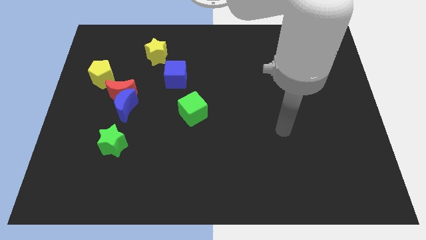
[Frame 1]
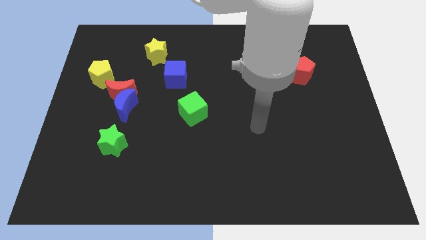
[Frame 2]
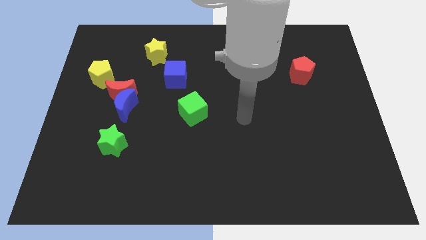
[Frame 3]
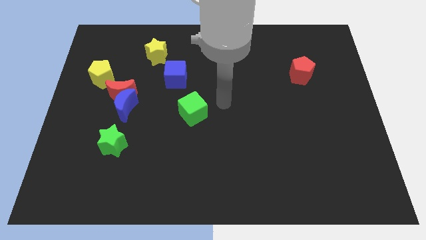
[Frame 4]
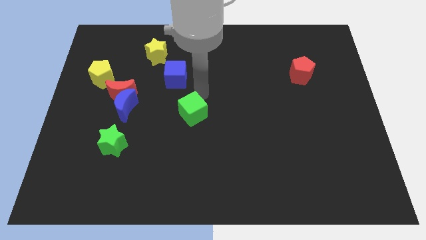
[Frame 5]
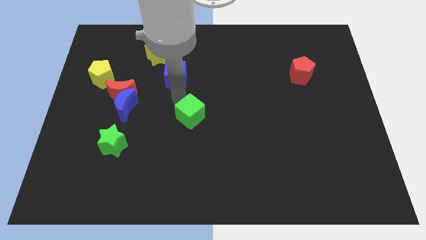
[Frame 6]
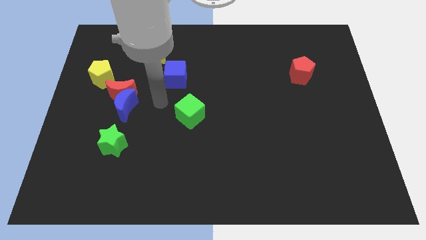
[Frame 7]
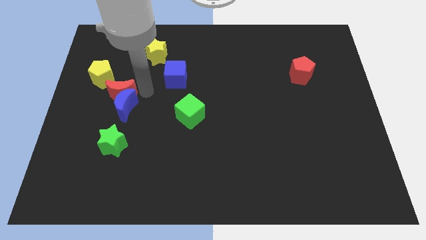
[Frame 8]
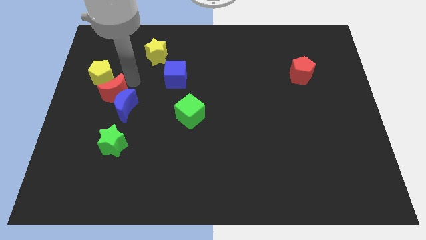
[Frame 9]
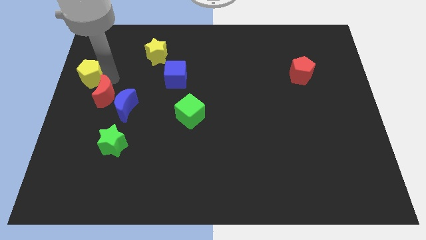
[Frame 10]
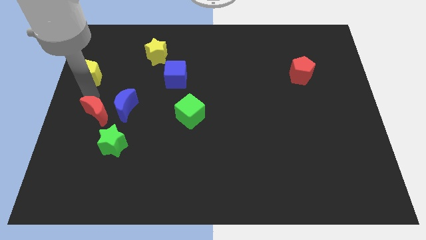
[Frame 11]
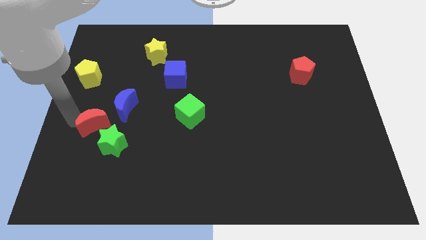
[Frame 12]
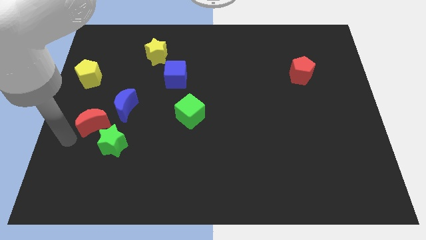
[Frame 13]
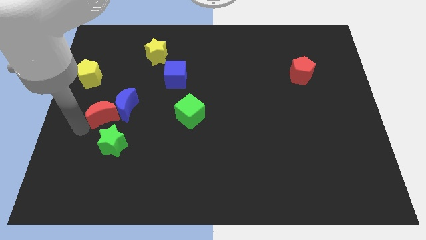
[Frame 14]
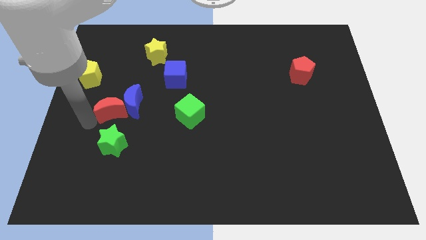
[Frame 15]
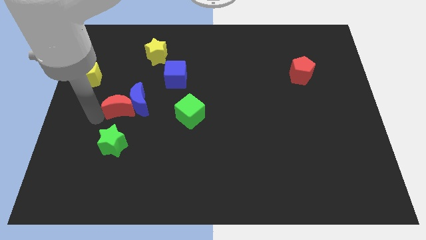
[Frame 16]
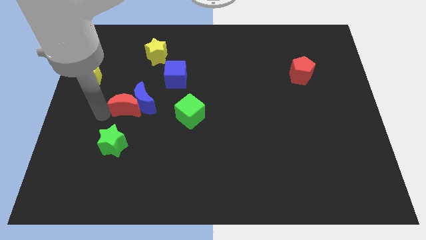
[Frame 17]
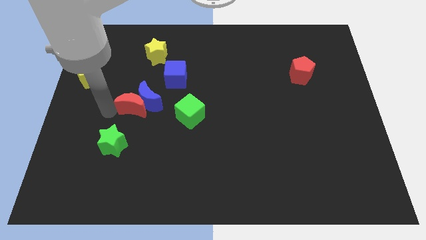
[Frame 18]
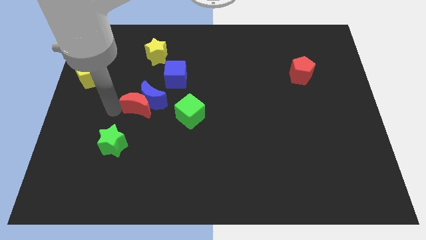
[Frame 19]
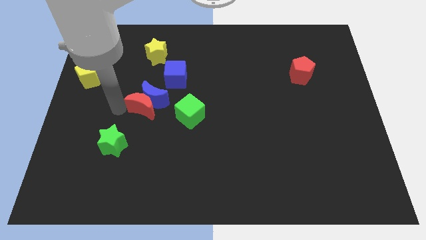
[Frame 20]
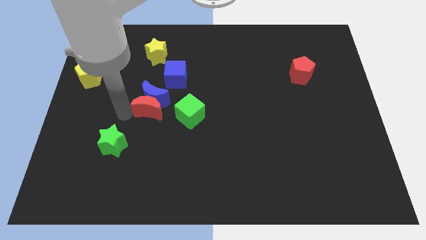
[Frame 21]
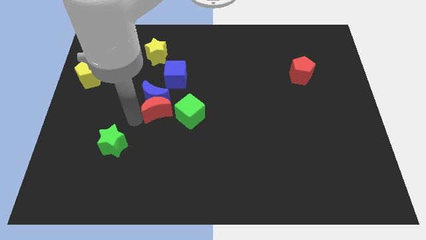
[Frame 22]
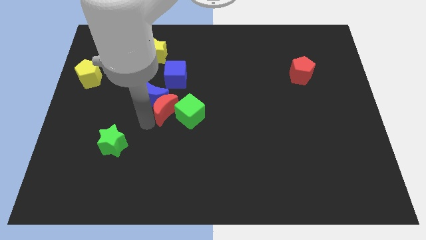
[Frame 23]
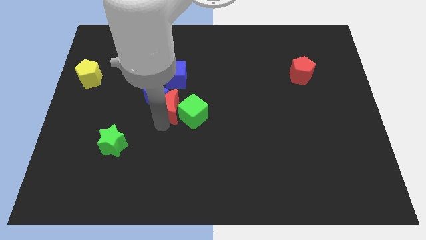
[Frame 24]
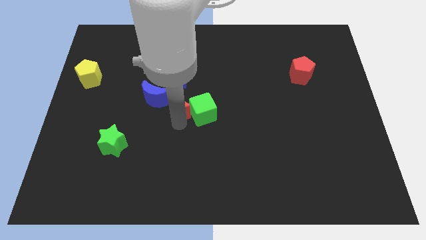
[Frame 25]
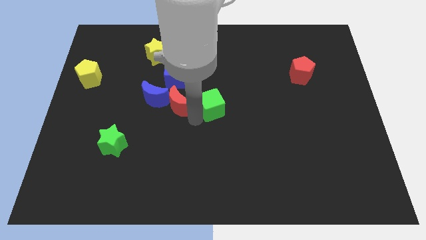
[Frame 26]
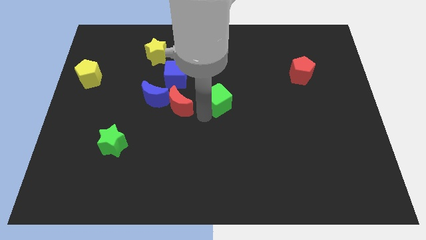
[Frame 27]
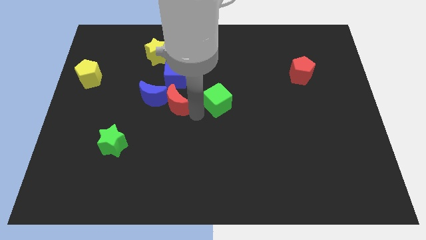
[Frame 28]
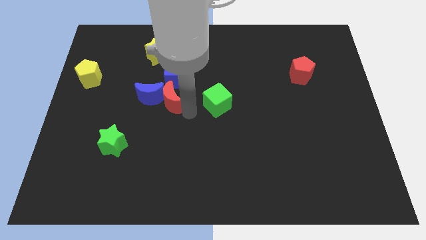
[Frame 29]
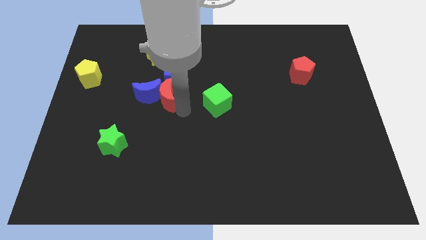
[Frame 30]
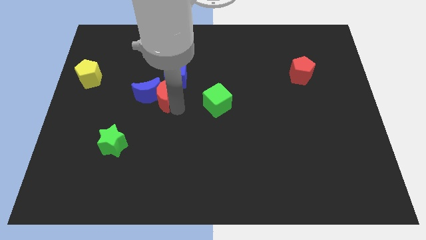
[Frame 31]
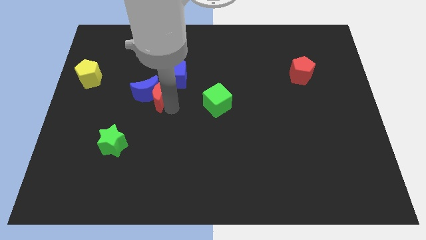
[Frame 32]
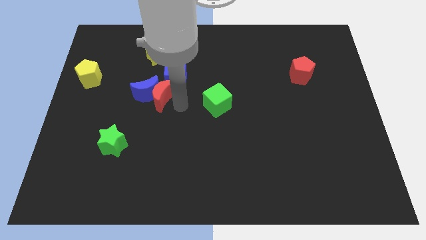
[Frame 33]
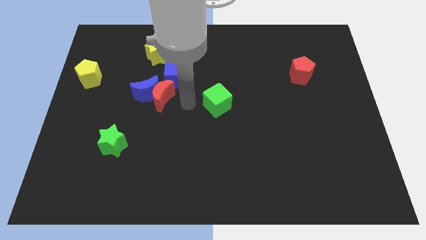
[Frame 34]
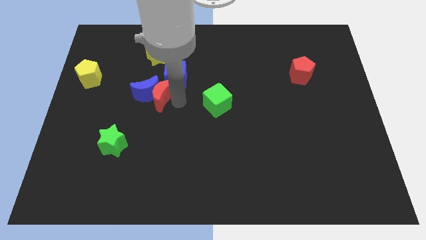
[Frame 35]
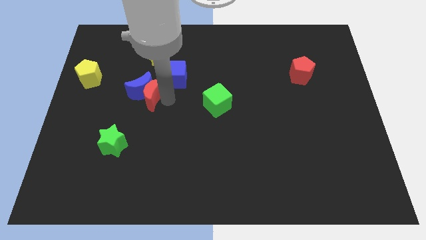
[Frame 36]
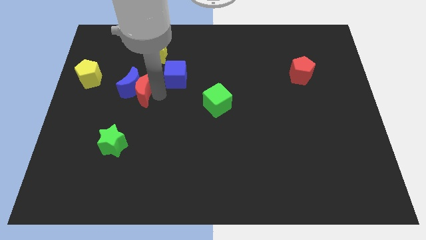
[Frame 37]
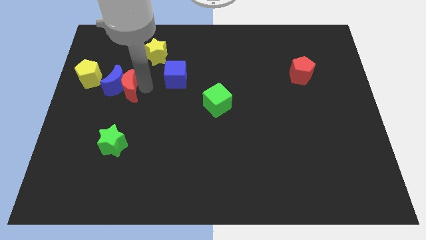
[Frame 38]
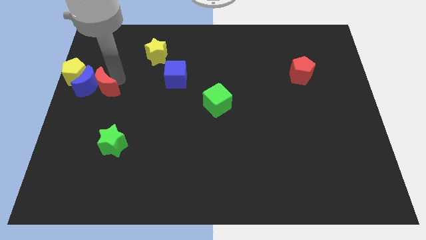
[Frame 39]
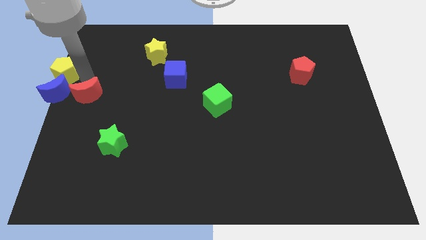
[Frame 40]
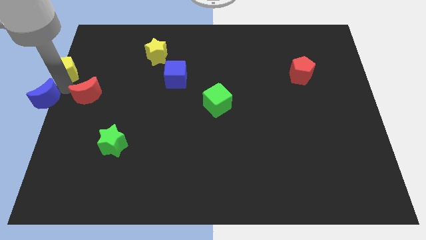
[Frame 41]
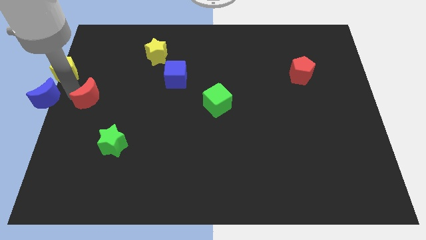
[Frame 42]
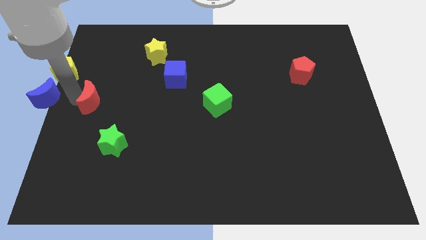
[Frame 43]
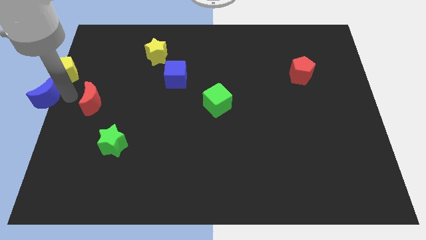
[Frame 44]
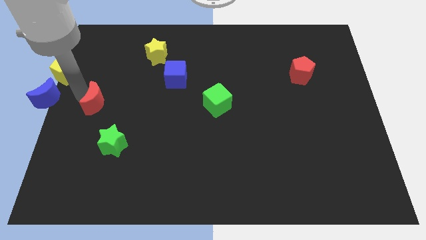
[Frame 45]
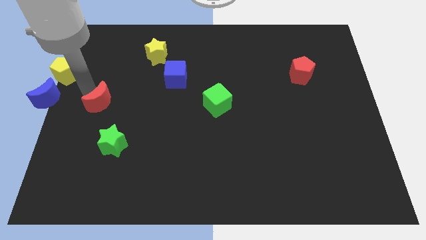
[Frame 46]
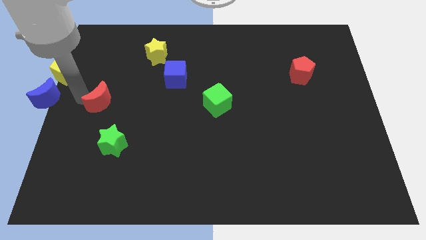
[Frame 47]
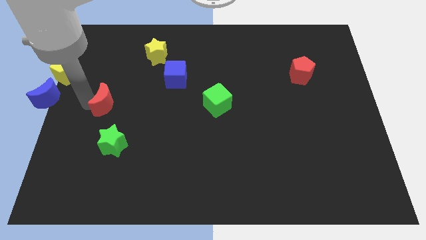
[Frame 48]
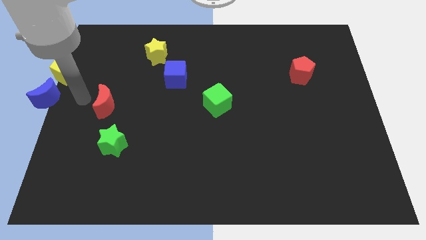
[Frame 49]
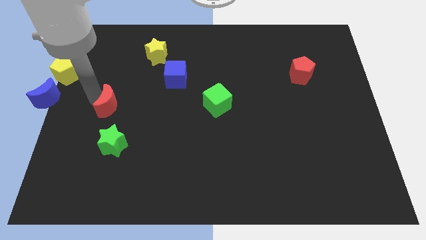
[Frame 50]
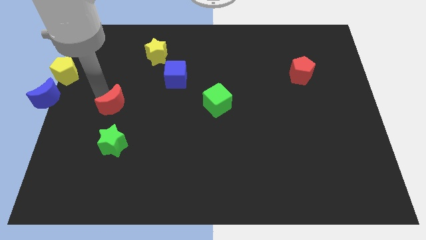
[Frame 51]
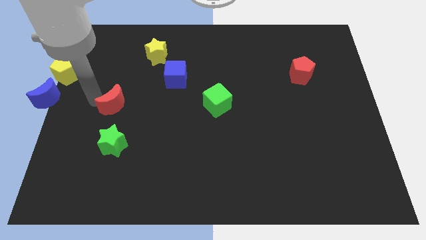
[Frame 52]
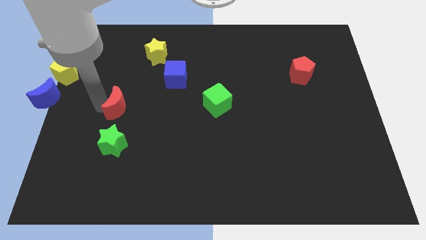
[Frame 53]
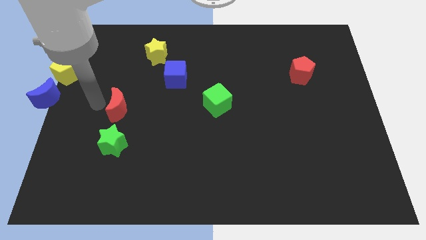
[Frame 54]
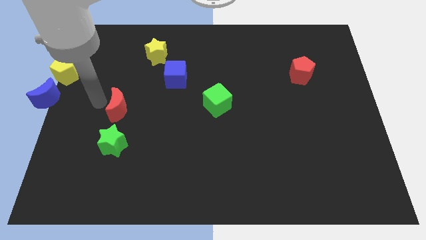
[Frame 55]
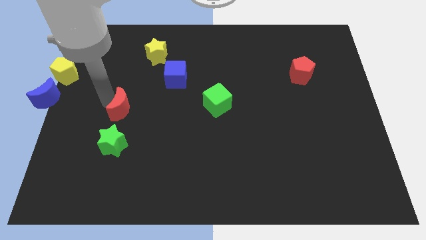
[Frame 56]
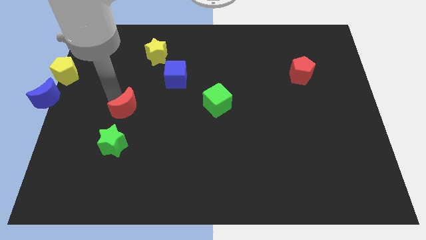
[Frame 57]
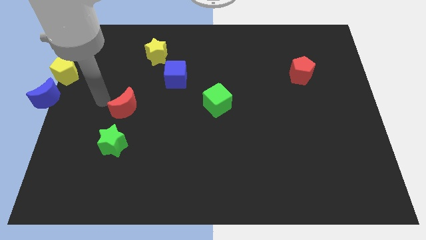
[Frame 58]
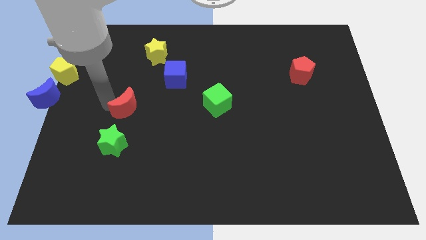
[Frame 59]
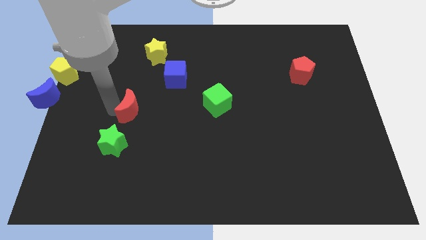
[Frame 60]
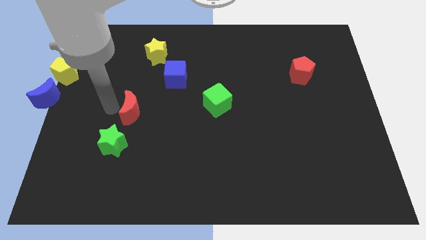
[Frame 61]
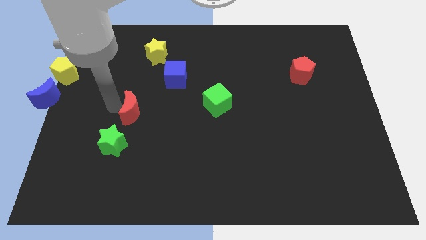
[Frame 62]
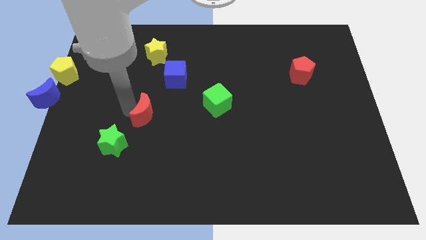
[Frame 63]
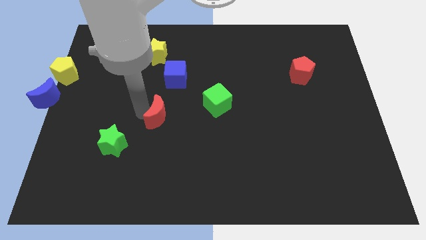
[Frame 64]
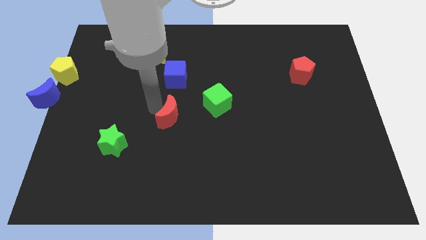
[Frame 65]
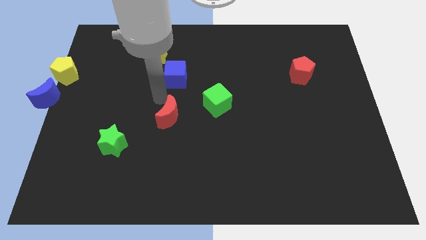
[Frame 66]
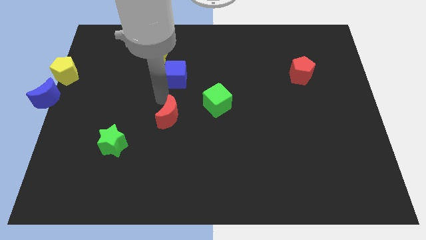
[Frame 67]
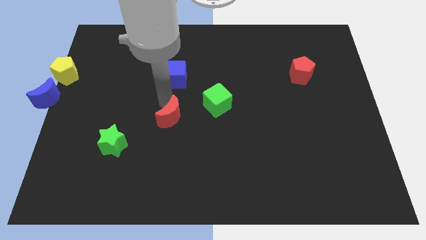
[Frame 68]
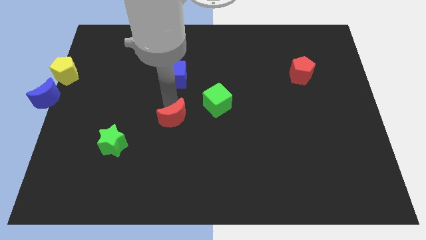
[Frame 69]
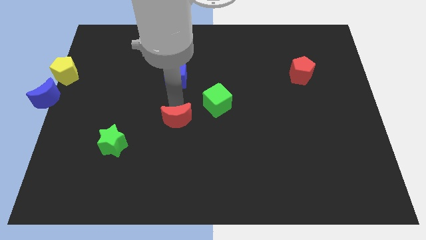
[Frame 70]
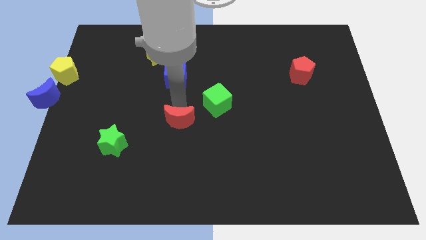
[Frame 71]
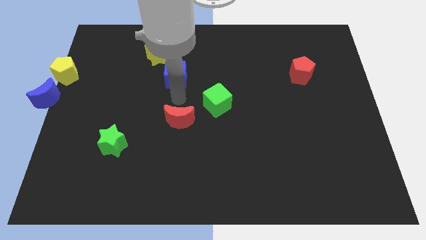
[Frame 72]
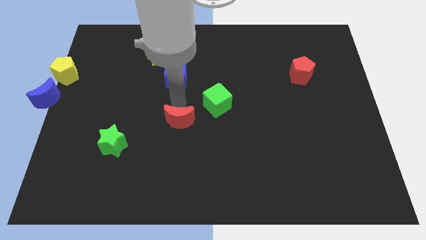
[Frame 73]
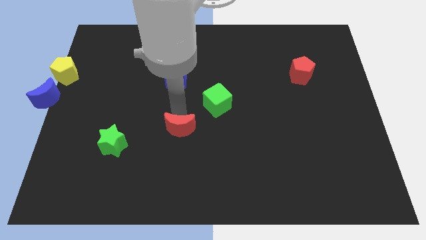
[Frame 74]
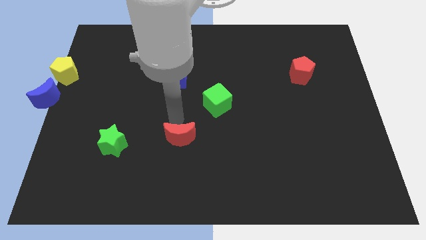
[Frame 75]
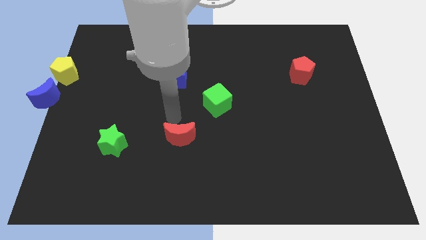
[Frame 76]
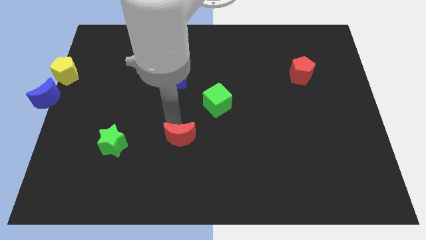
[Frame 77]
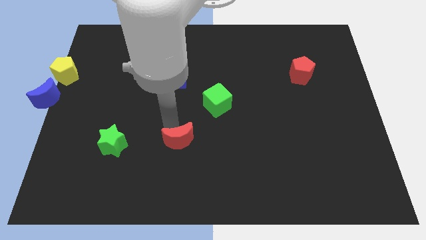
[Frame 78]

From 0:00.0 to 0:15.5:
move the red moon down and right

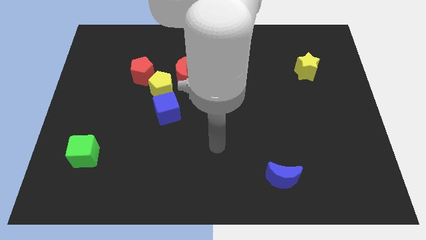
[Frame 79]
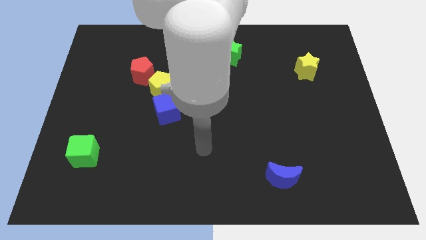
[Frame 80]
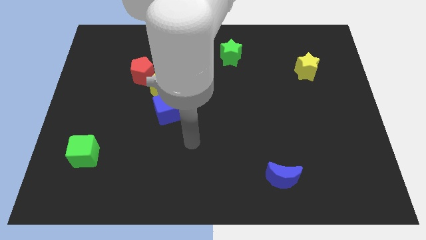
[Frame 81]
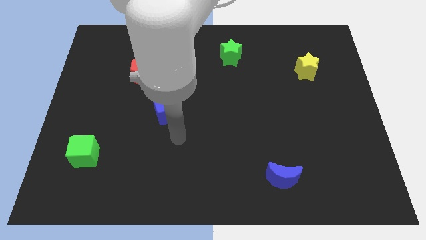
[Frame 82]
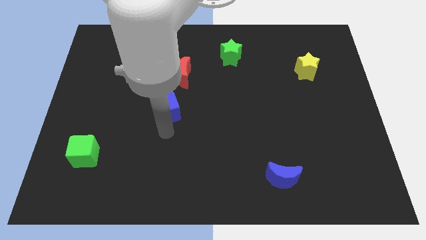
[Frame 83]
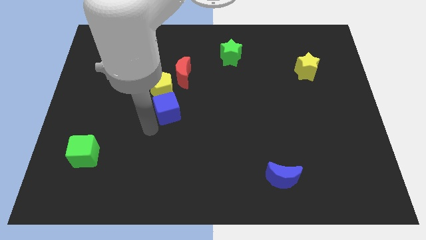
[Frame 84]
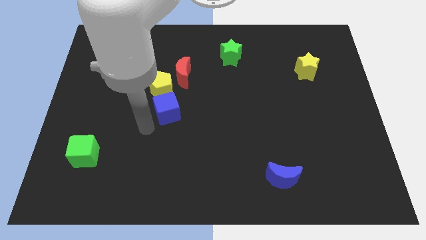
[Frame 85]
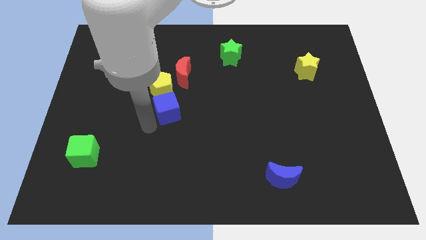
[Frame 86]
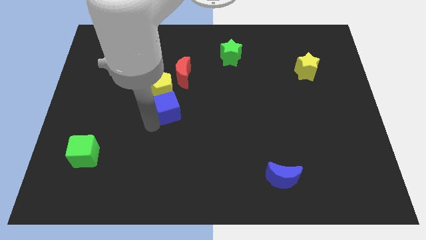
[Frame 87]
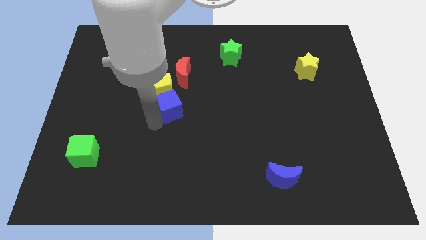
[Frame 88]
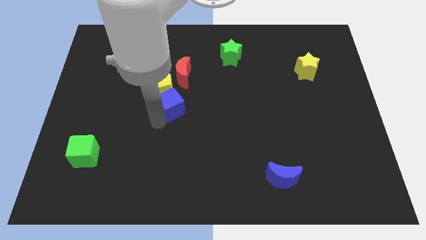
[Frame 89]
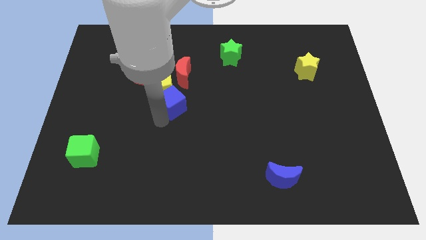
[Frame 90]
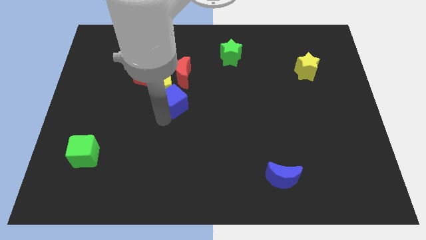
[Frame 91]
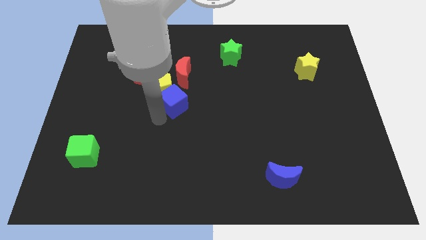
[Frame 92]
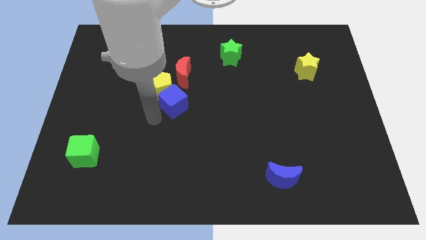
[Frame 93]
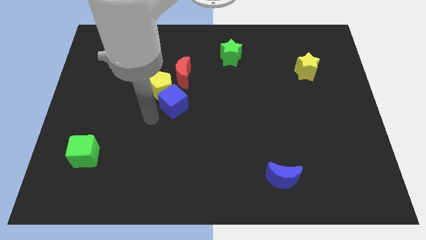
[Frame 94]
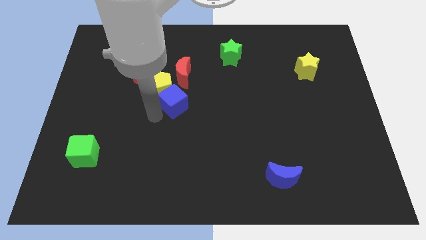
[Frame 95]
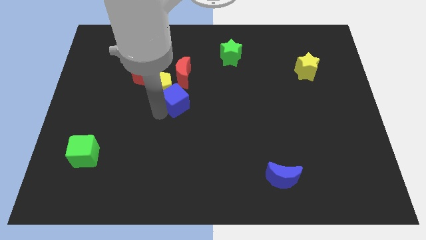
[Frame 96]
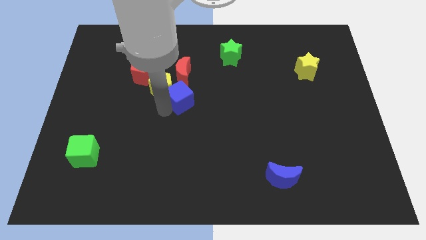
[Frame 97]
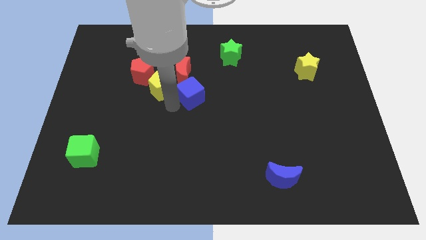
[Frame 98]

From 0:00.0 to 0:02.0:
slide the blue cube a little diagonally up and to the right
